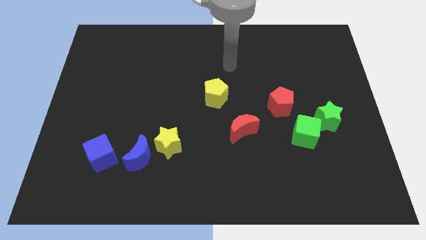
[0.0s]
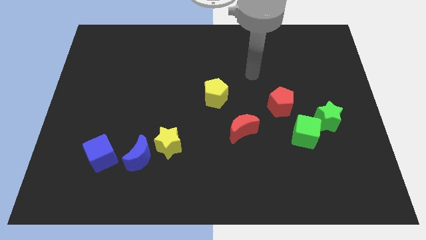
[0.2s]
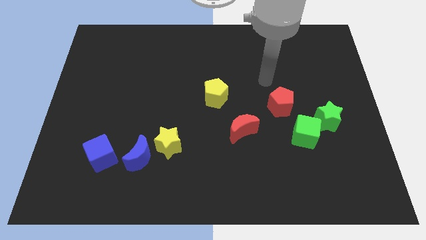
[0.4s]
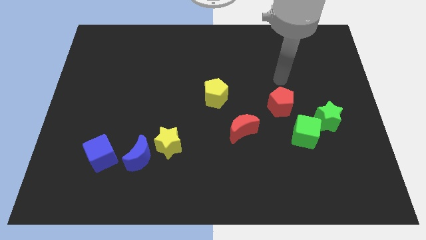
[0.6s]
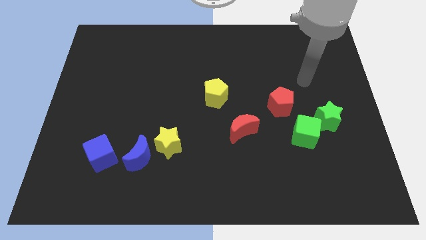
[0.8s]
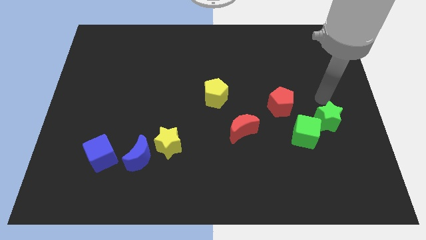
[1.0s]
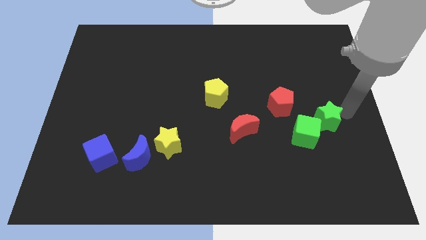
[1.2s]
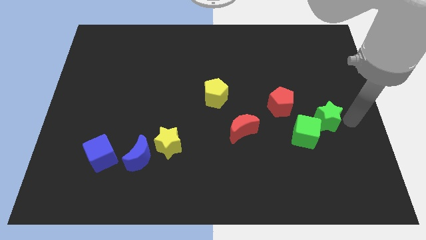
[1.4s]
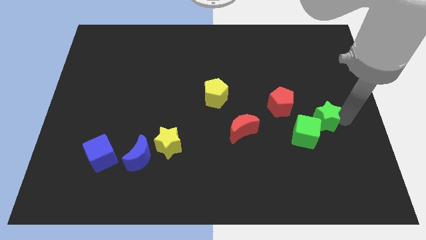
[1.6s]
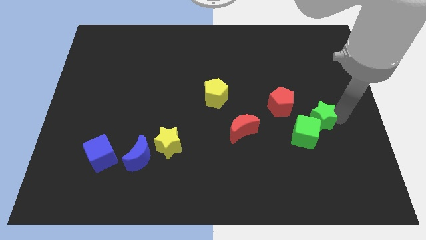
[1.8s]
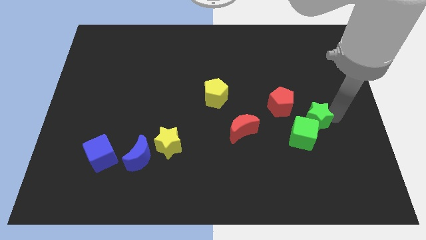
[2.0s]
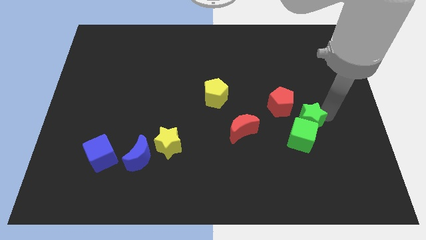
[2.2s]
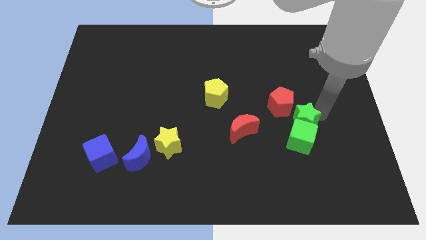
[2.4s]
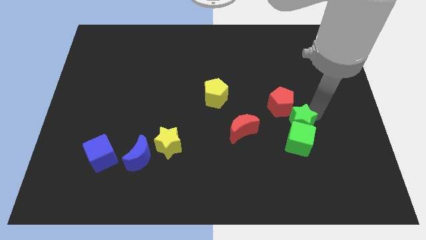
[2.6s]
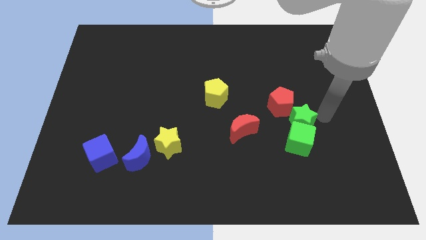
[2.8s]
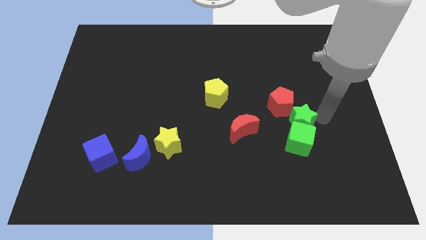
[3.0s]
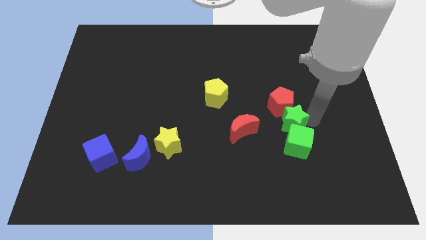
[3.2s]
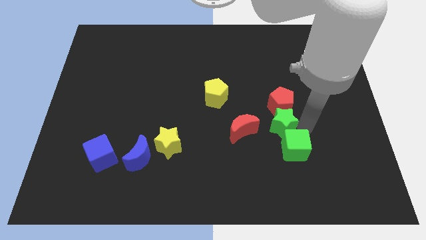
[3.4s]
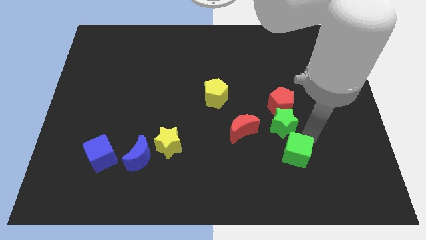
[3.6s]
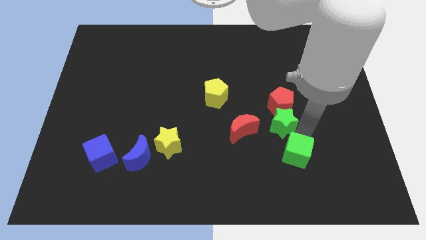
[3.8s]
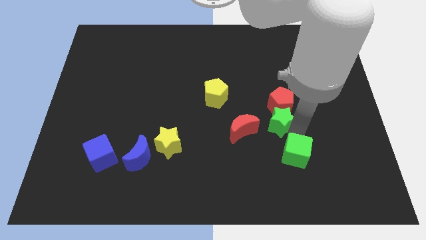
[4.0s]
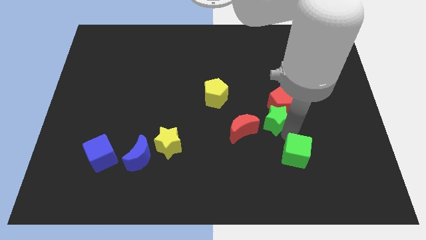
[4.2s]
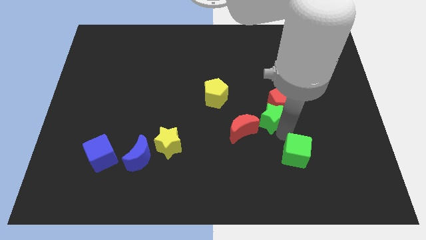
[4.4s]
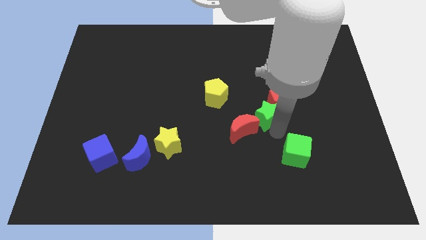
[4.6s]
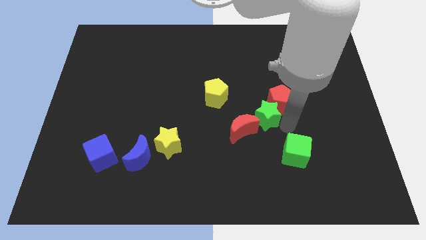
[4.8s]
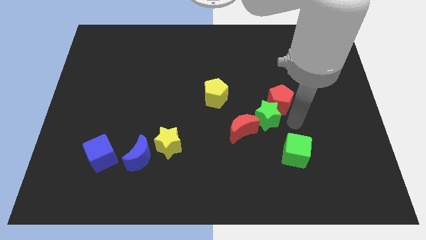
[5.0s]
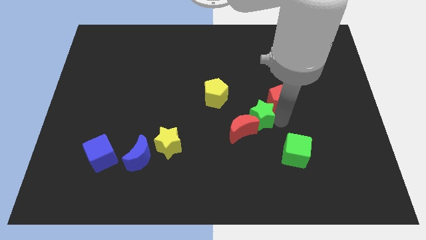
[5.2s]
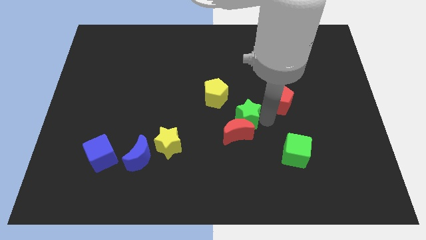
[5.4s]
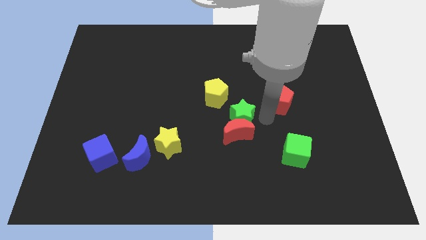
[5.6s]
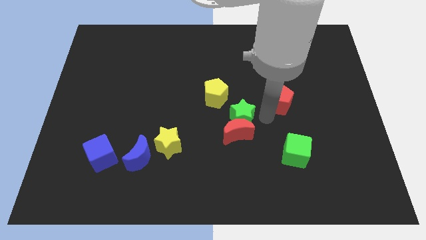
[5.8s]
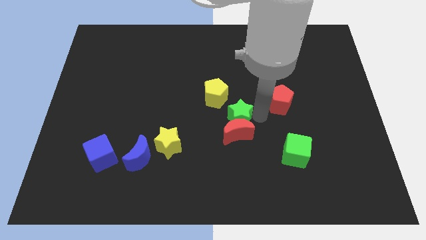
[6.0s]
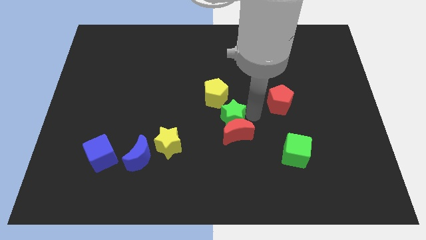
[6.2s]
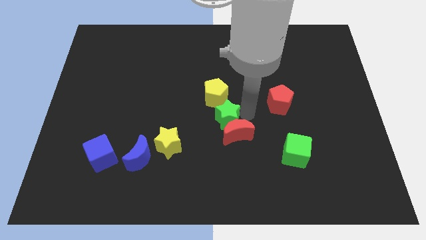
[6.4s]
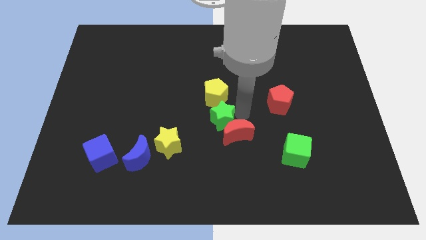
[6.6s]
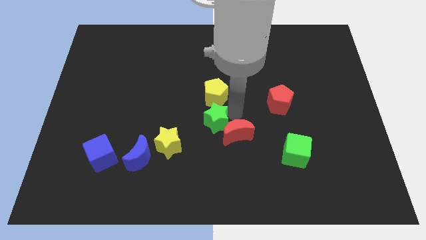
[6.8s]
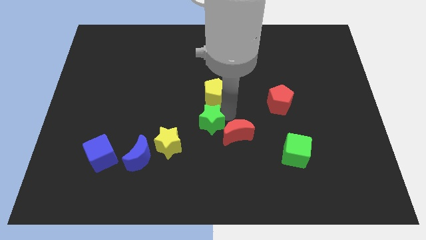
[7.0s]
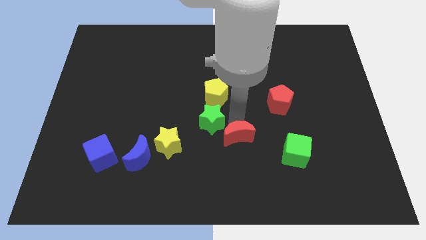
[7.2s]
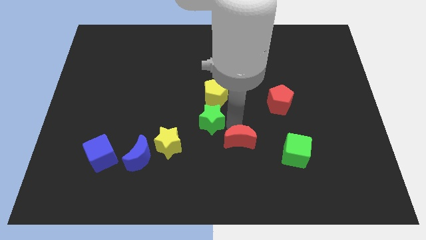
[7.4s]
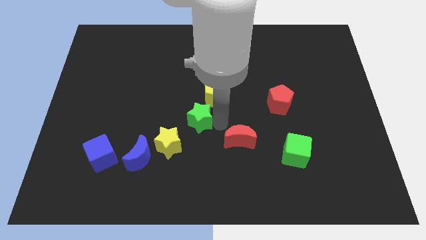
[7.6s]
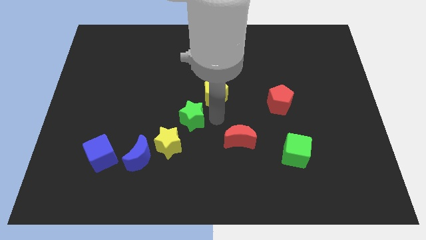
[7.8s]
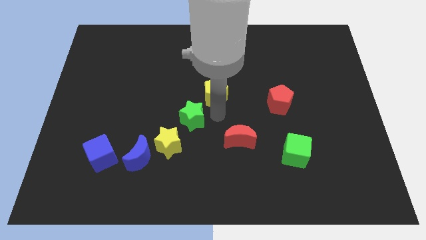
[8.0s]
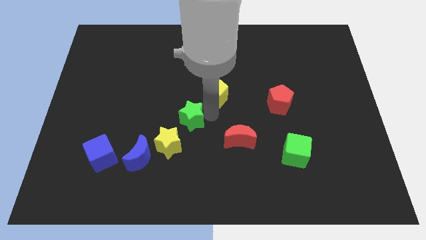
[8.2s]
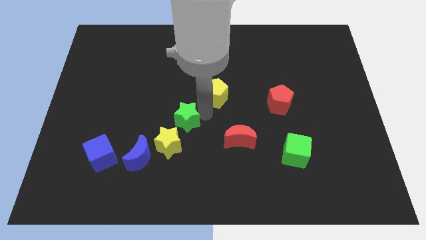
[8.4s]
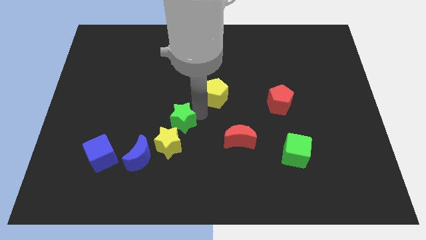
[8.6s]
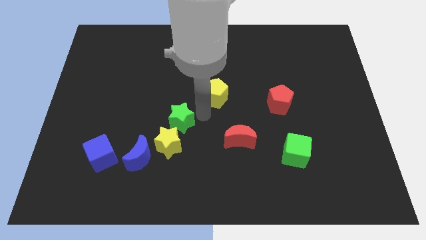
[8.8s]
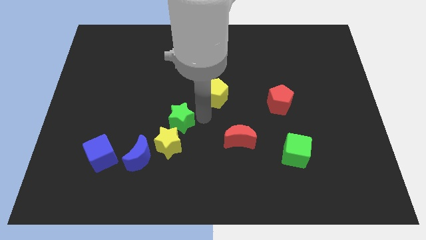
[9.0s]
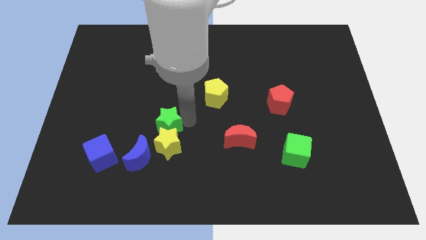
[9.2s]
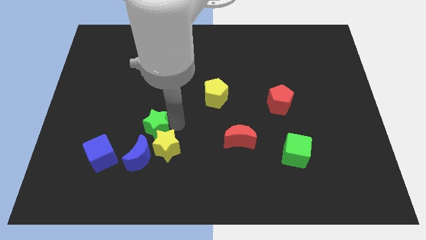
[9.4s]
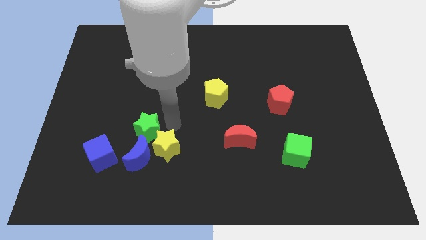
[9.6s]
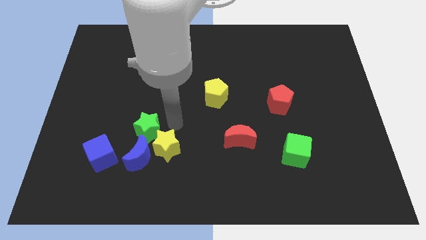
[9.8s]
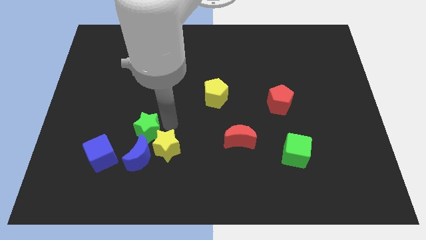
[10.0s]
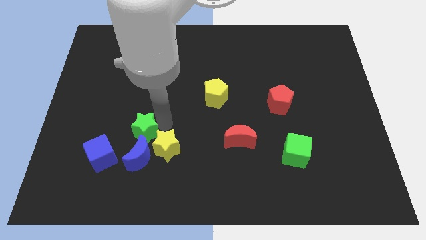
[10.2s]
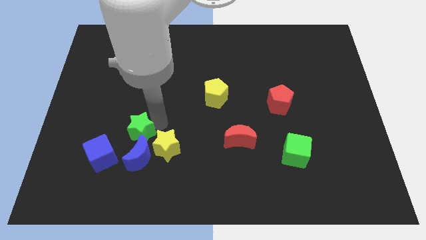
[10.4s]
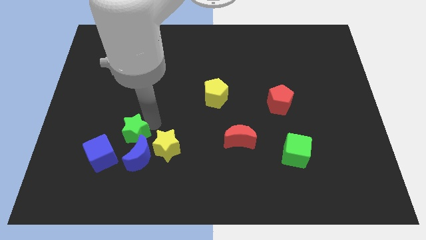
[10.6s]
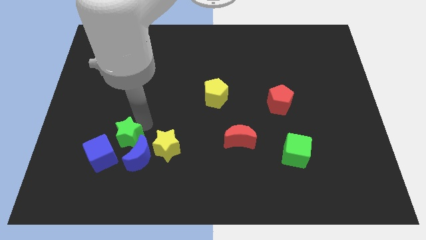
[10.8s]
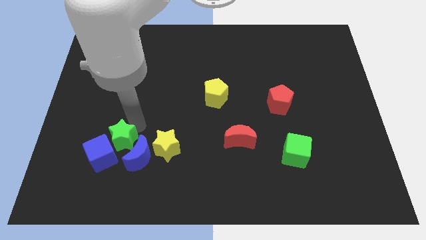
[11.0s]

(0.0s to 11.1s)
push the green star to the blue cube

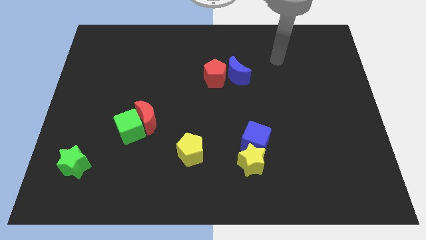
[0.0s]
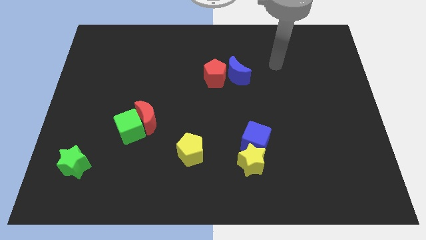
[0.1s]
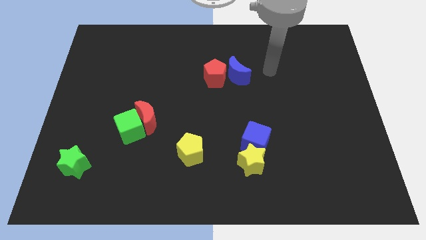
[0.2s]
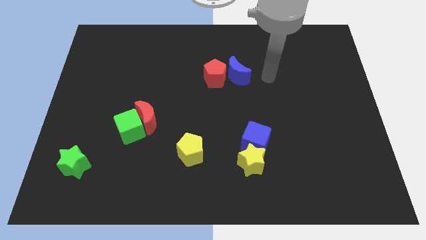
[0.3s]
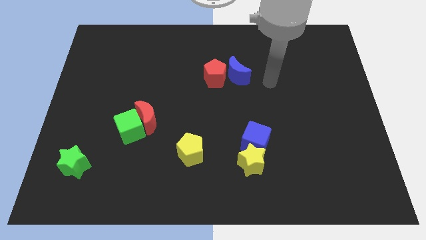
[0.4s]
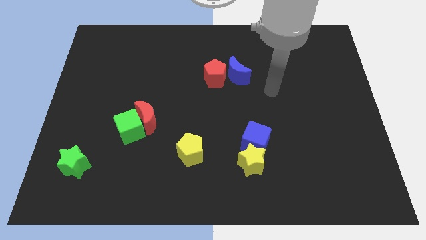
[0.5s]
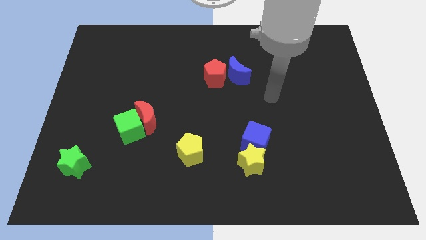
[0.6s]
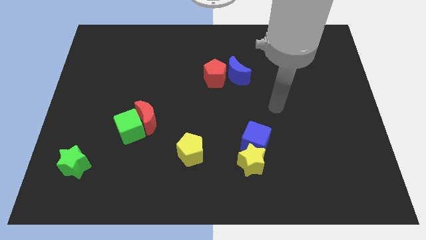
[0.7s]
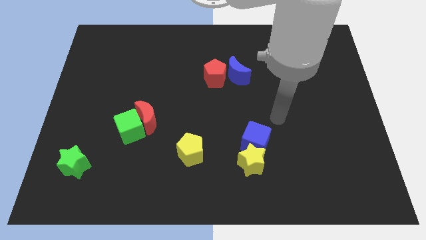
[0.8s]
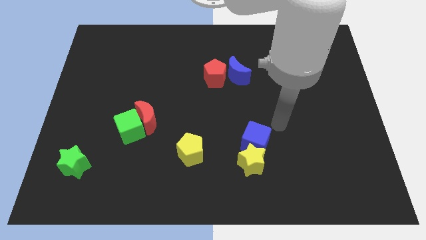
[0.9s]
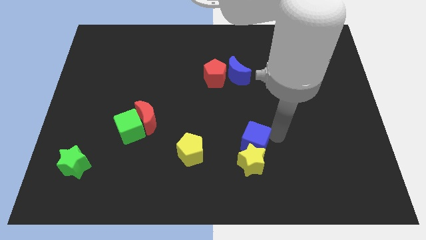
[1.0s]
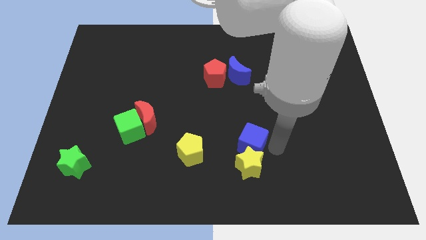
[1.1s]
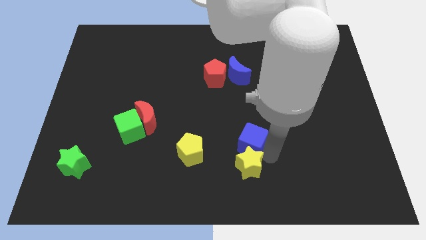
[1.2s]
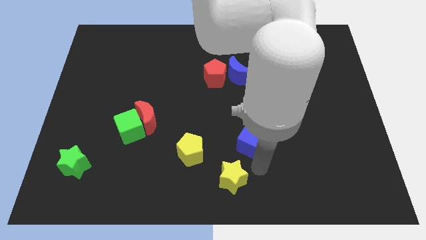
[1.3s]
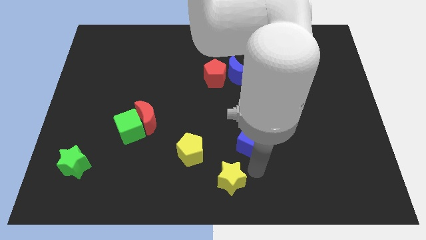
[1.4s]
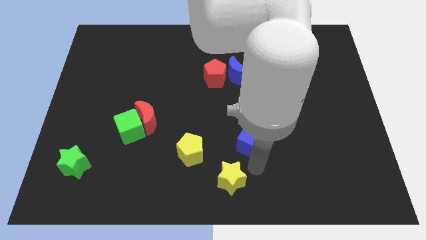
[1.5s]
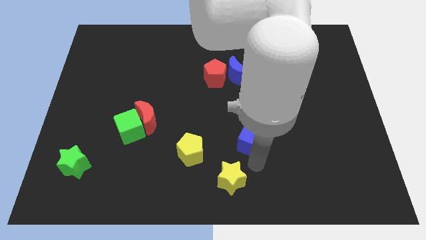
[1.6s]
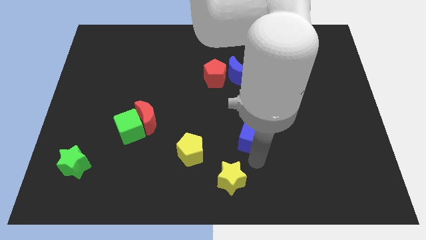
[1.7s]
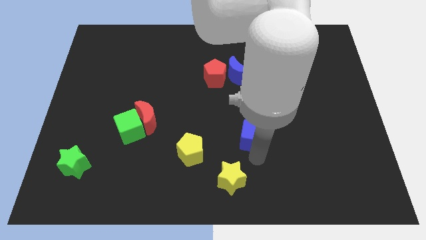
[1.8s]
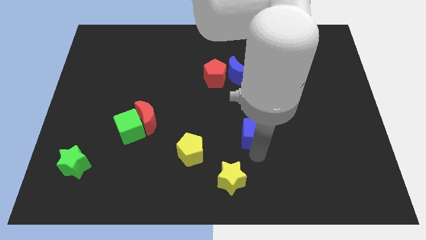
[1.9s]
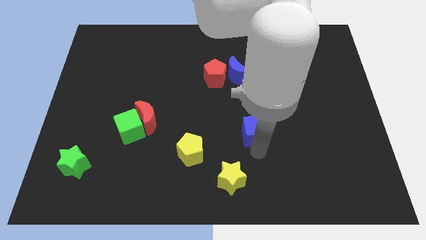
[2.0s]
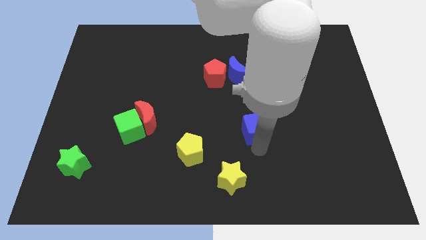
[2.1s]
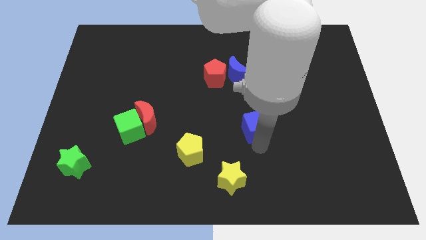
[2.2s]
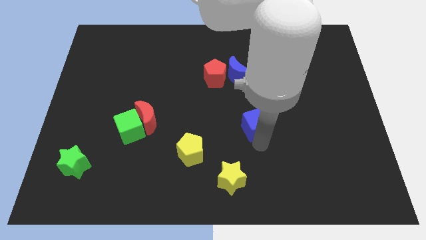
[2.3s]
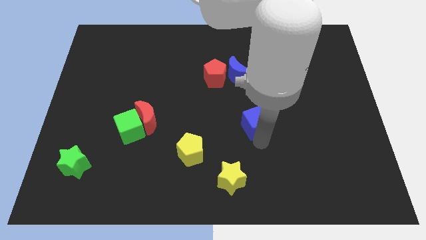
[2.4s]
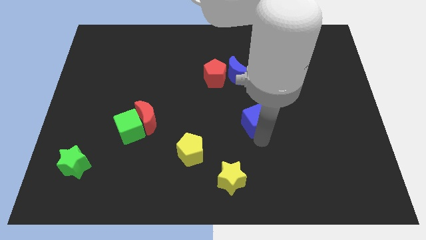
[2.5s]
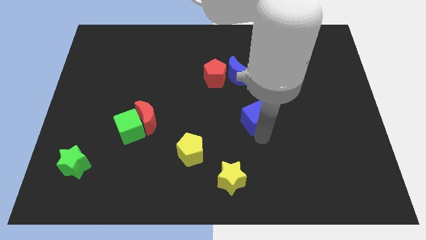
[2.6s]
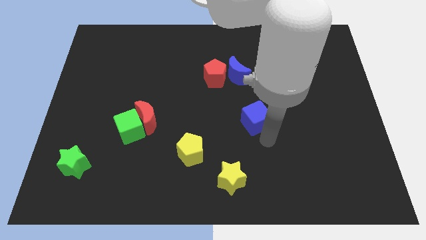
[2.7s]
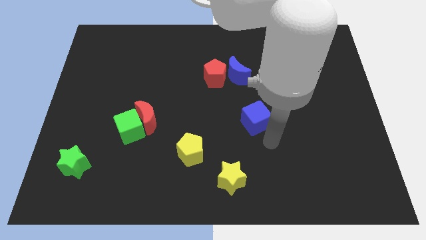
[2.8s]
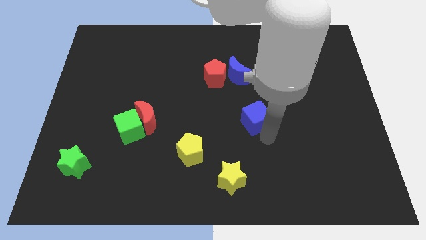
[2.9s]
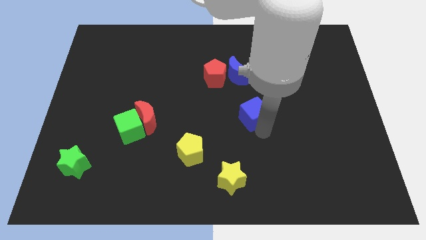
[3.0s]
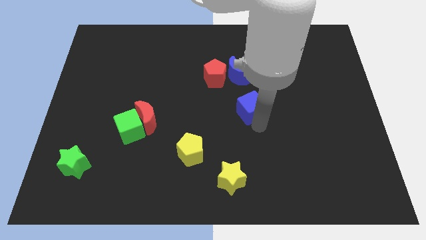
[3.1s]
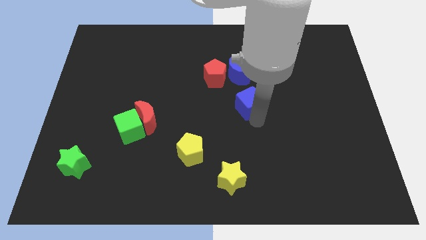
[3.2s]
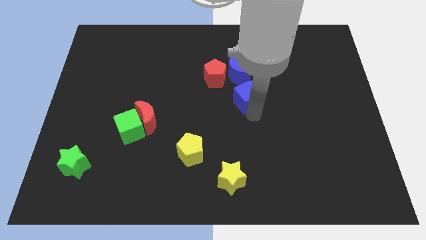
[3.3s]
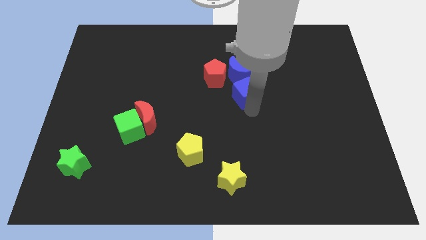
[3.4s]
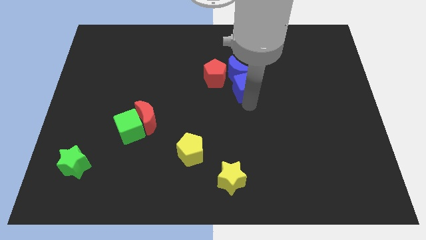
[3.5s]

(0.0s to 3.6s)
slide the blue cube close to the blue moon
